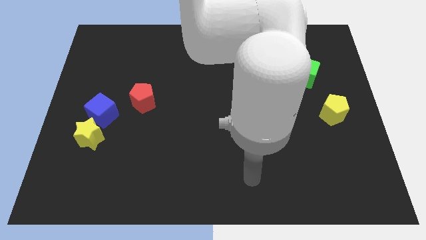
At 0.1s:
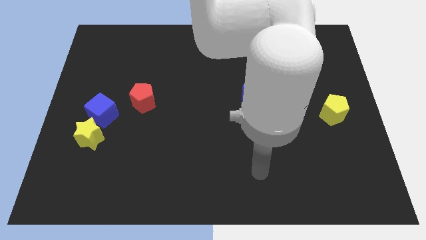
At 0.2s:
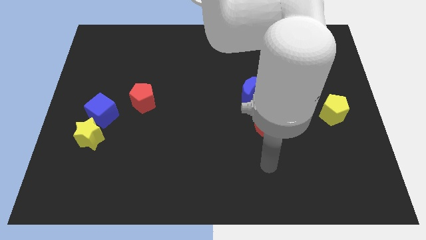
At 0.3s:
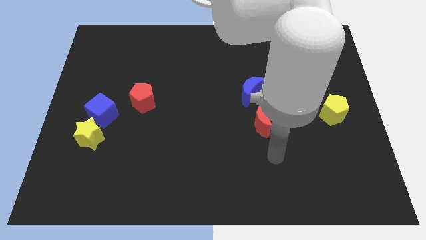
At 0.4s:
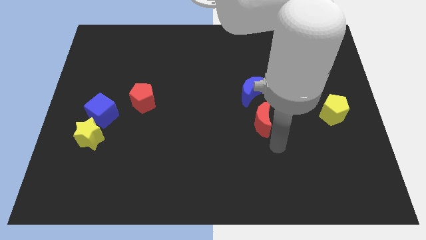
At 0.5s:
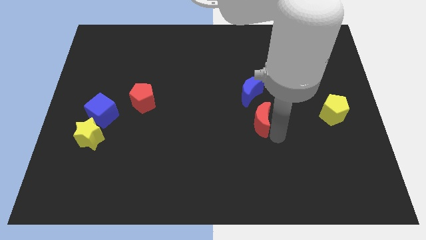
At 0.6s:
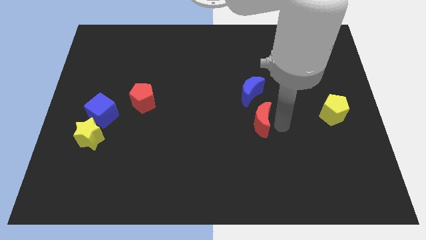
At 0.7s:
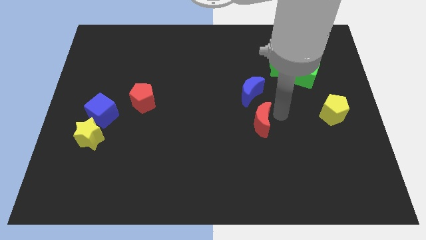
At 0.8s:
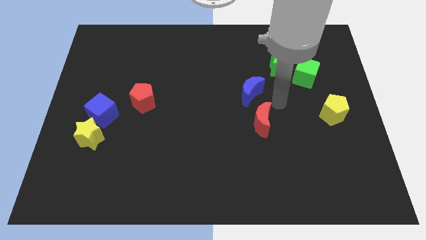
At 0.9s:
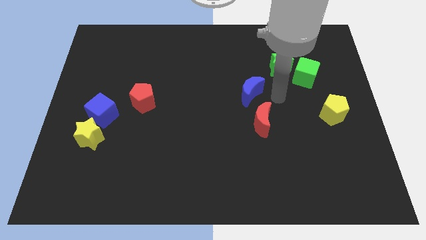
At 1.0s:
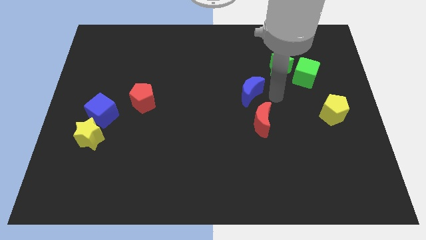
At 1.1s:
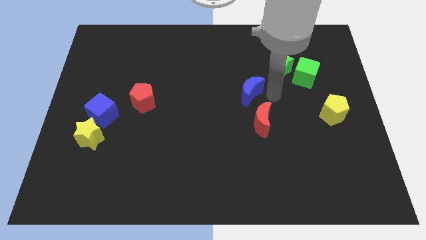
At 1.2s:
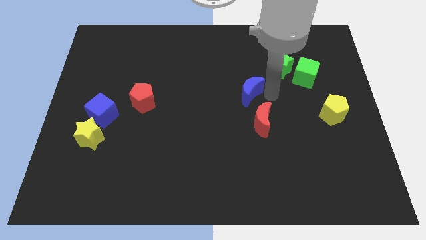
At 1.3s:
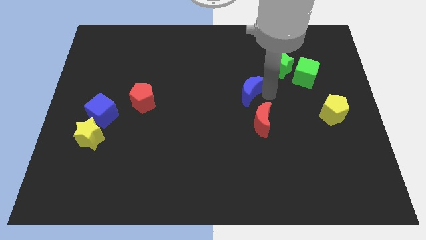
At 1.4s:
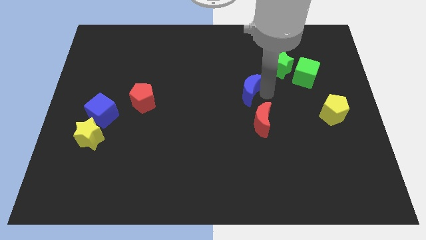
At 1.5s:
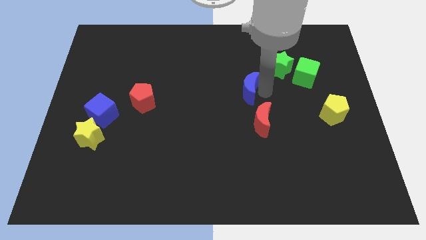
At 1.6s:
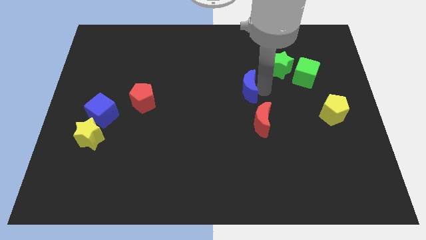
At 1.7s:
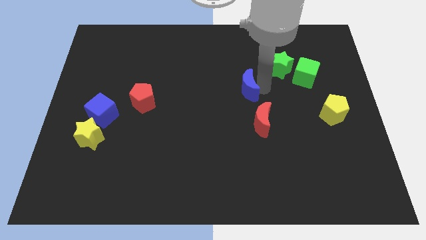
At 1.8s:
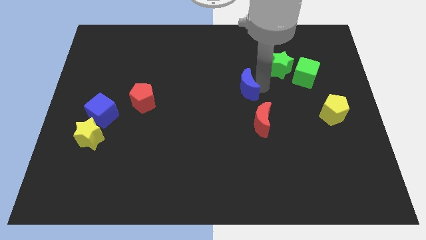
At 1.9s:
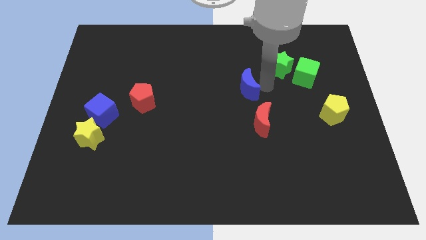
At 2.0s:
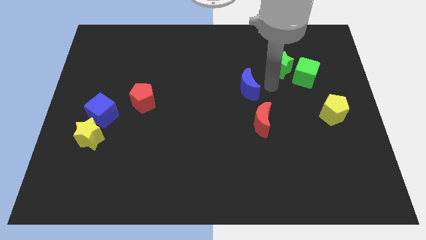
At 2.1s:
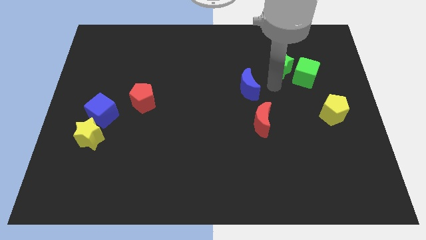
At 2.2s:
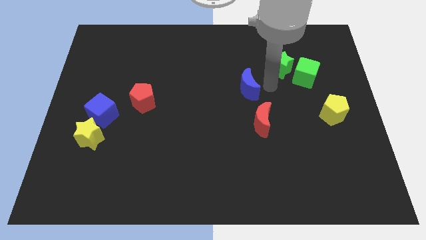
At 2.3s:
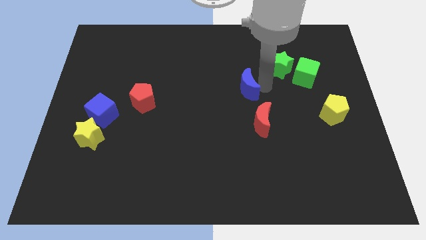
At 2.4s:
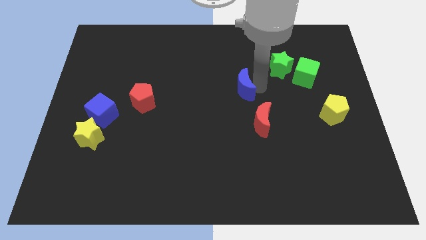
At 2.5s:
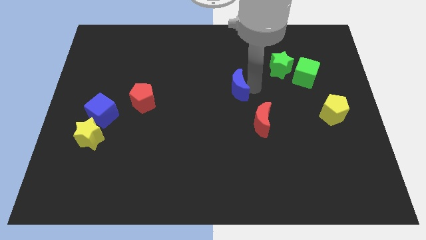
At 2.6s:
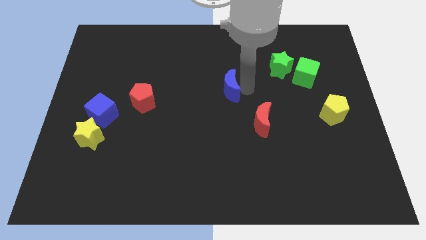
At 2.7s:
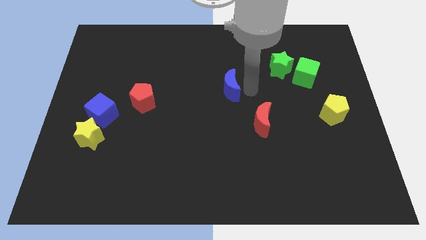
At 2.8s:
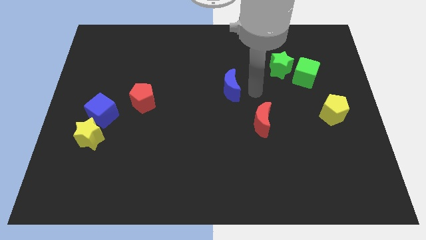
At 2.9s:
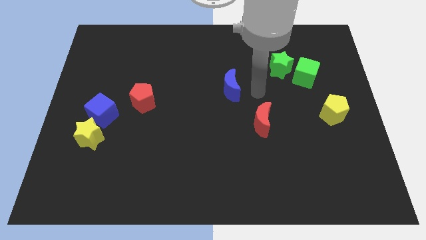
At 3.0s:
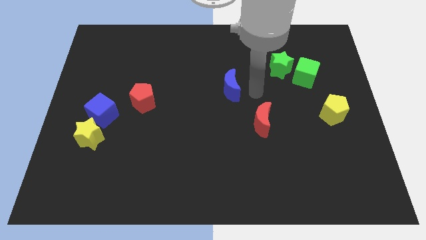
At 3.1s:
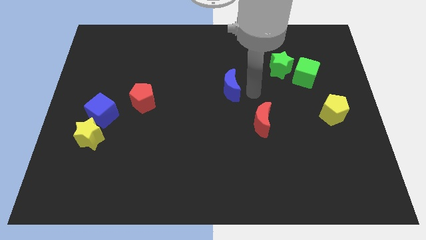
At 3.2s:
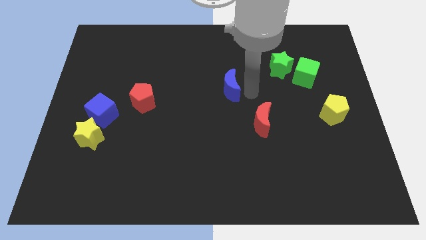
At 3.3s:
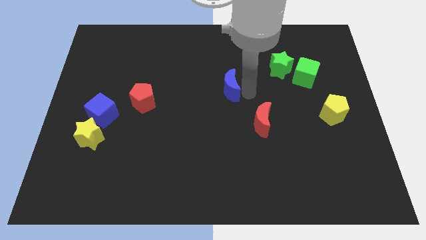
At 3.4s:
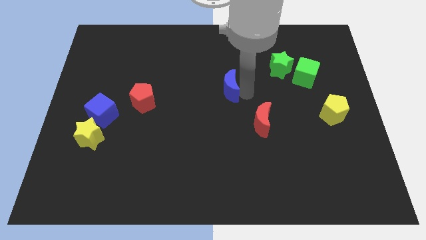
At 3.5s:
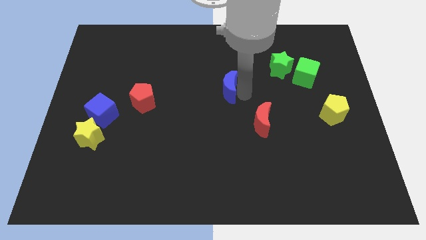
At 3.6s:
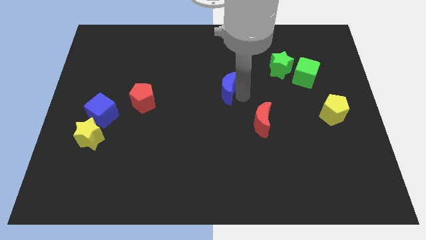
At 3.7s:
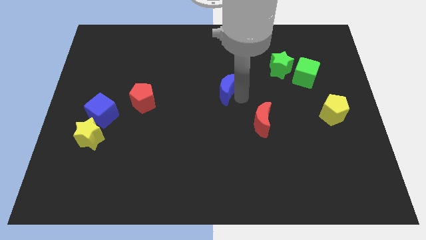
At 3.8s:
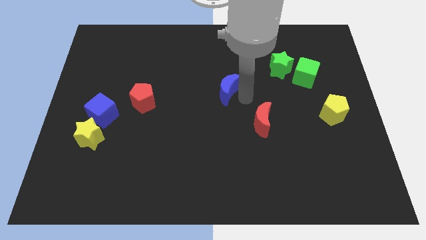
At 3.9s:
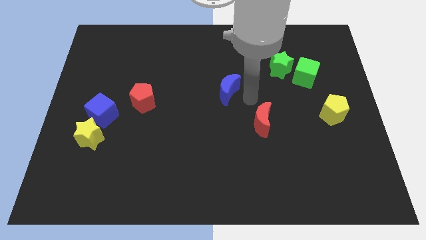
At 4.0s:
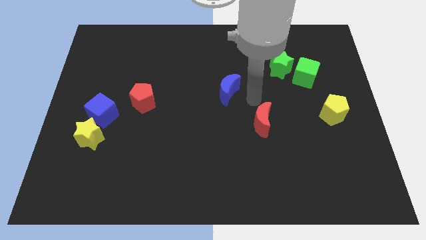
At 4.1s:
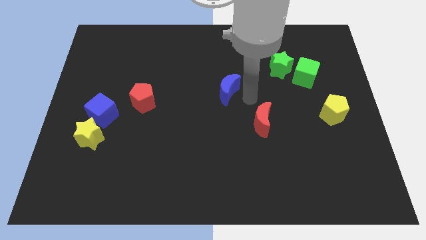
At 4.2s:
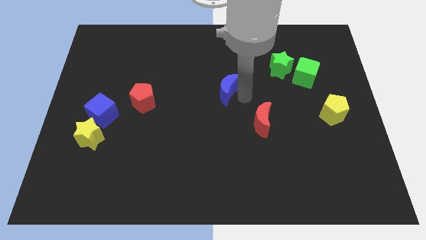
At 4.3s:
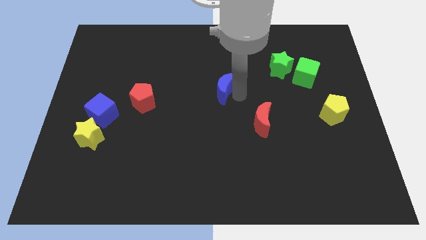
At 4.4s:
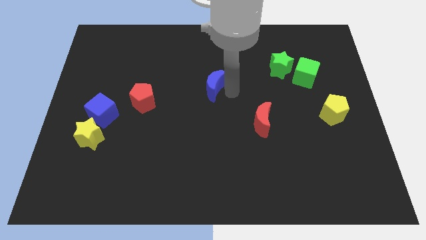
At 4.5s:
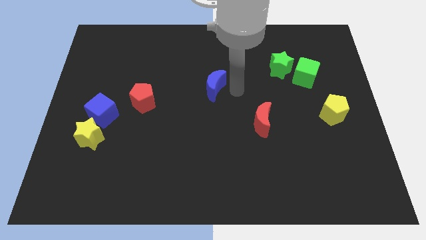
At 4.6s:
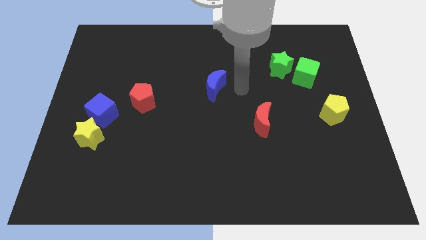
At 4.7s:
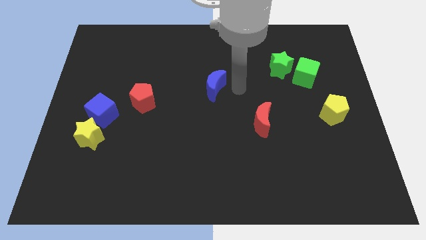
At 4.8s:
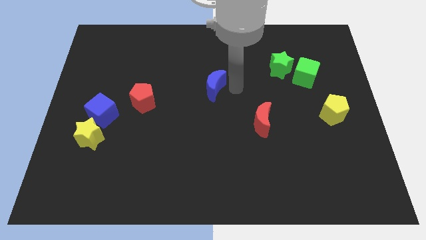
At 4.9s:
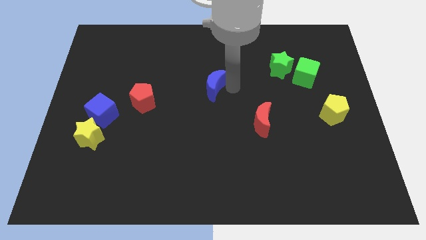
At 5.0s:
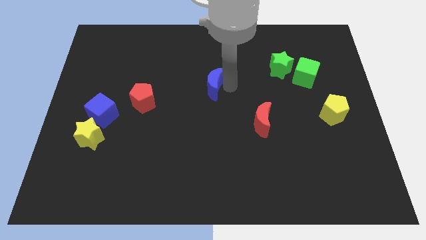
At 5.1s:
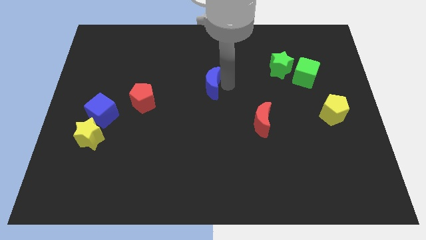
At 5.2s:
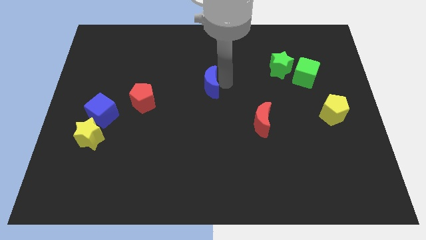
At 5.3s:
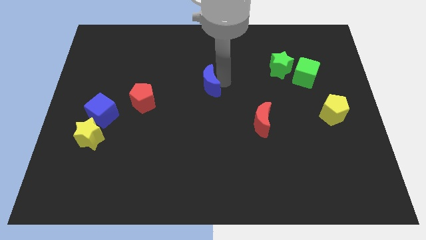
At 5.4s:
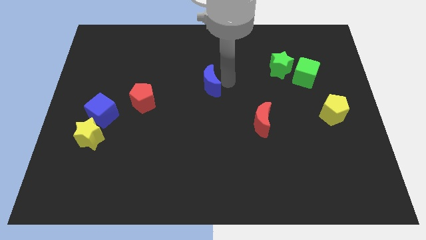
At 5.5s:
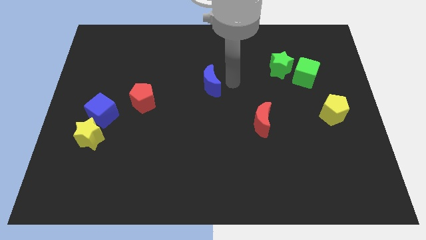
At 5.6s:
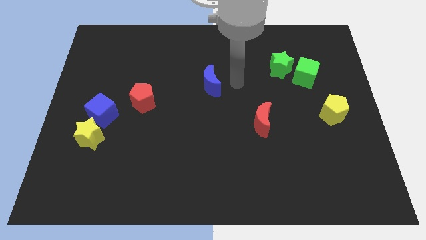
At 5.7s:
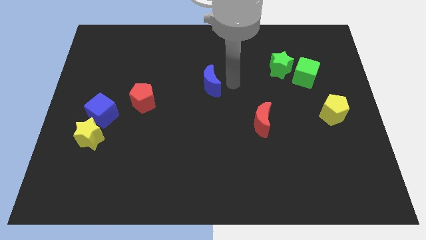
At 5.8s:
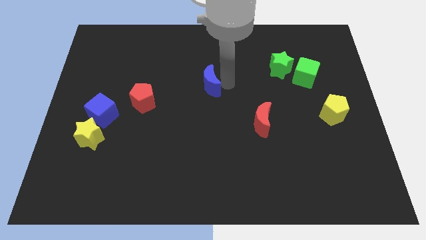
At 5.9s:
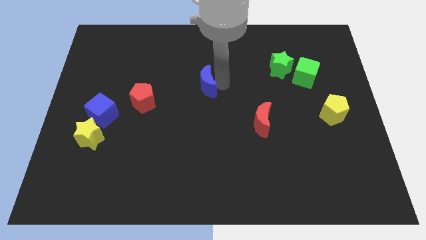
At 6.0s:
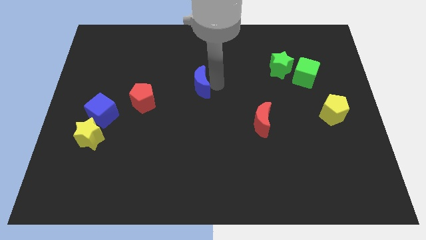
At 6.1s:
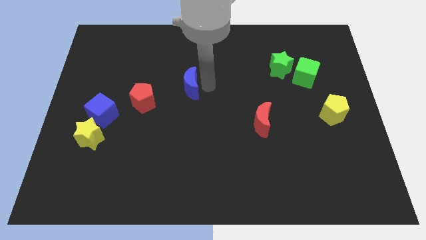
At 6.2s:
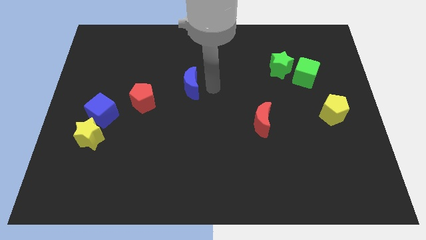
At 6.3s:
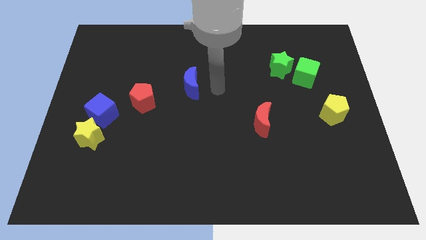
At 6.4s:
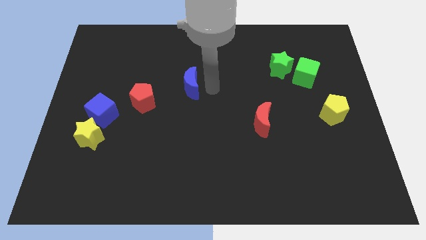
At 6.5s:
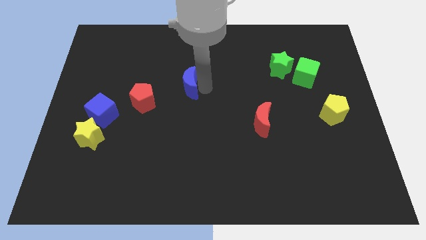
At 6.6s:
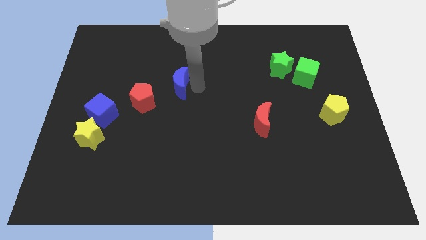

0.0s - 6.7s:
move the blue moon to the top right of the red pentagon
